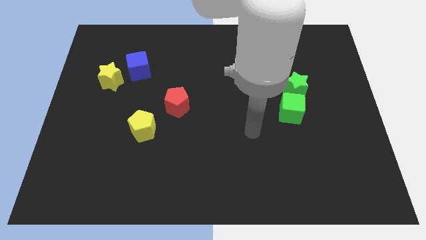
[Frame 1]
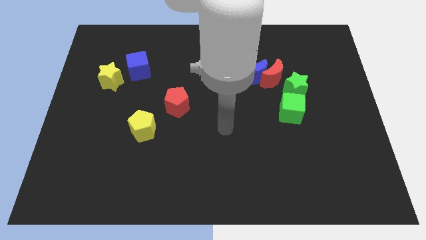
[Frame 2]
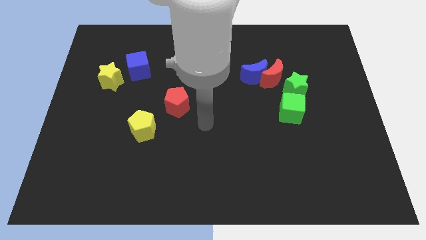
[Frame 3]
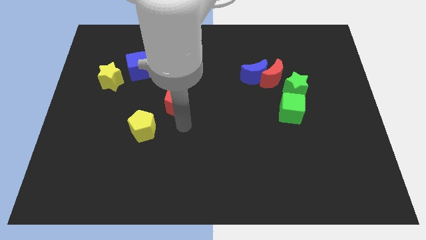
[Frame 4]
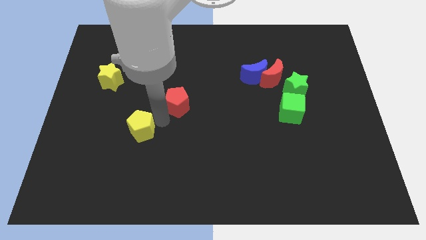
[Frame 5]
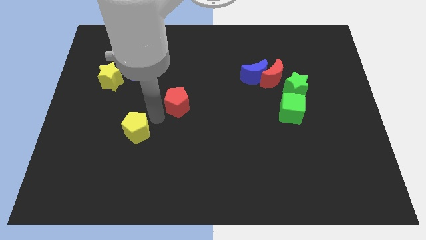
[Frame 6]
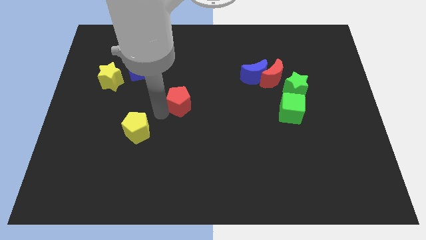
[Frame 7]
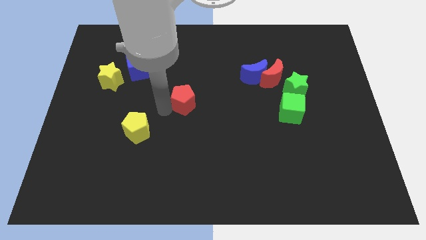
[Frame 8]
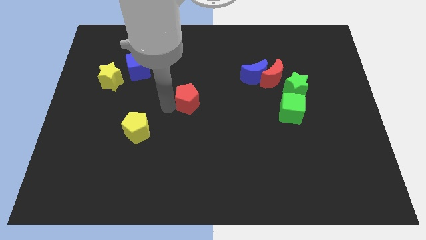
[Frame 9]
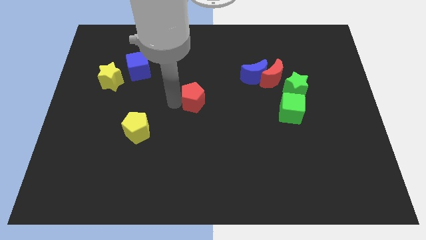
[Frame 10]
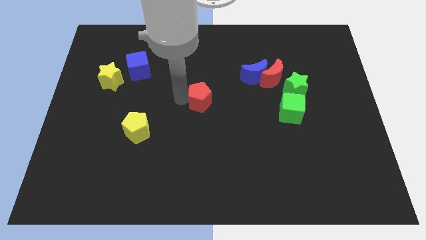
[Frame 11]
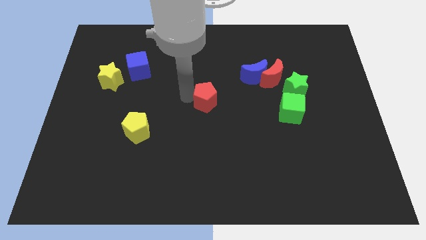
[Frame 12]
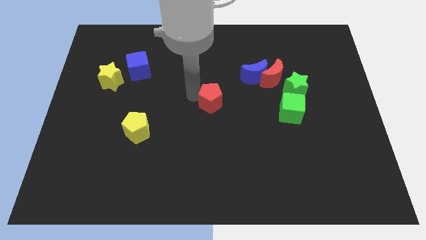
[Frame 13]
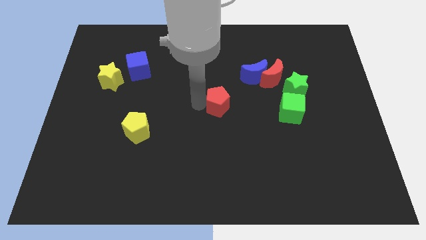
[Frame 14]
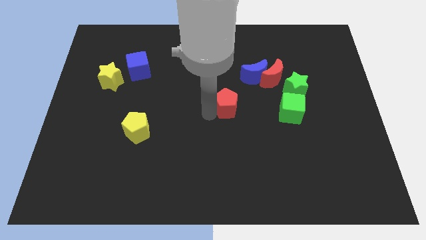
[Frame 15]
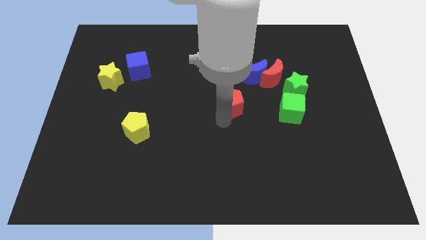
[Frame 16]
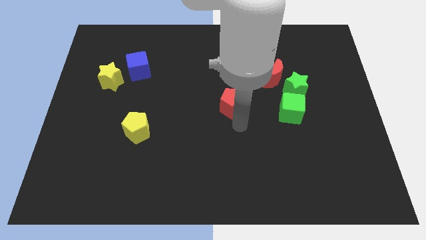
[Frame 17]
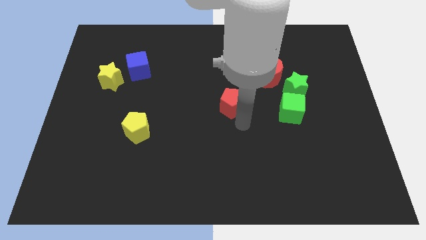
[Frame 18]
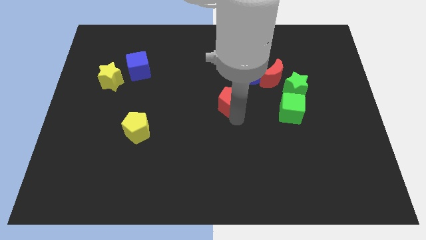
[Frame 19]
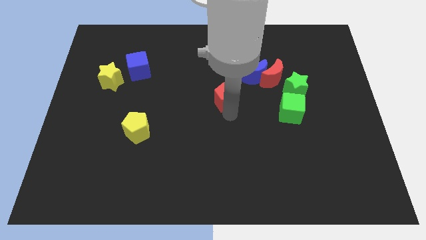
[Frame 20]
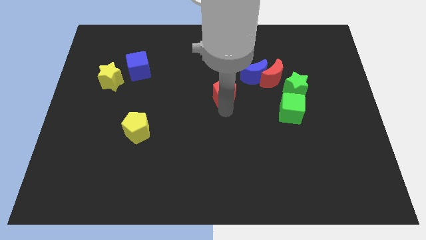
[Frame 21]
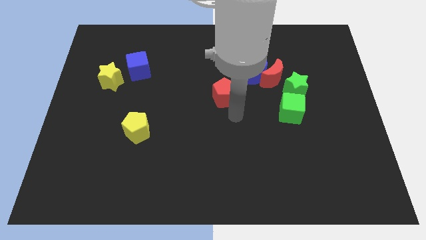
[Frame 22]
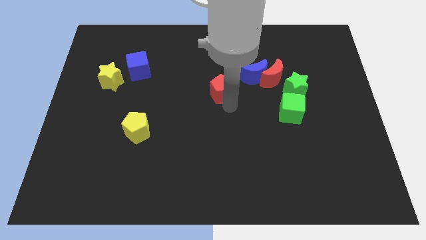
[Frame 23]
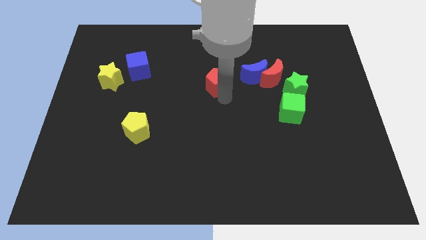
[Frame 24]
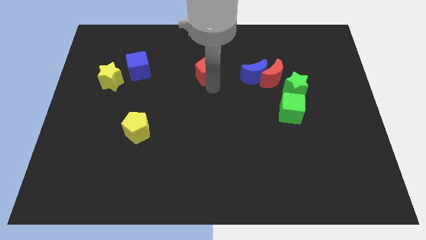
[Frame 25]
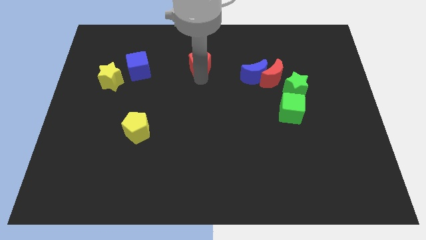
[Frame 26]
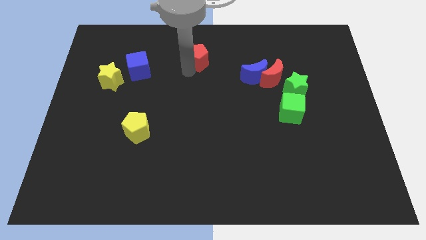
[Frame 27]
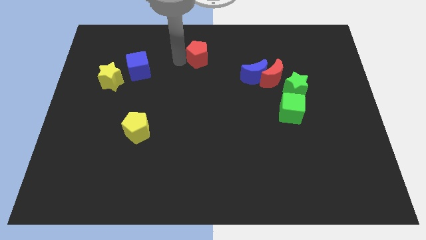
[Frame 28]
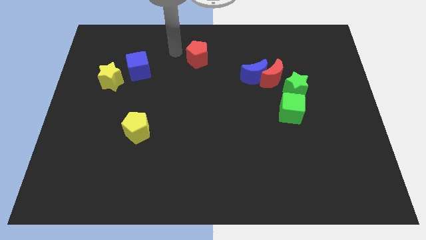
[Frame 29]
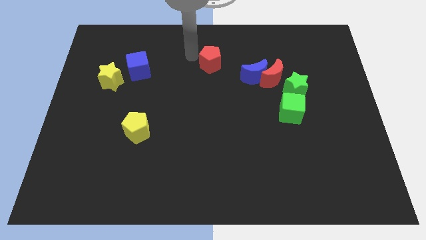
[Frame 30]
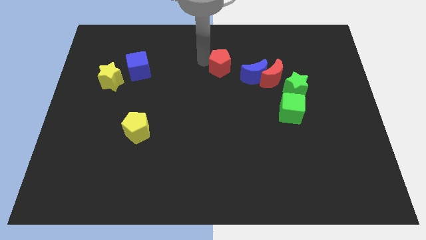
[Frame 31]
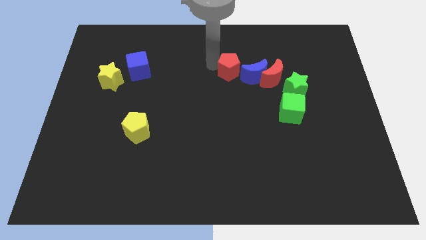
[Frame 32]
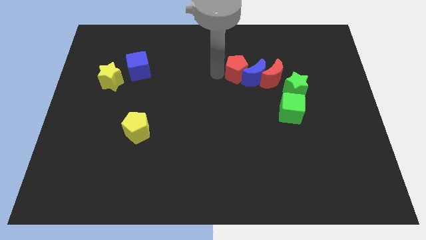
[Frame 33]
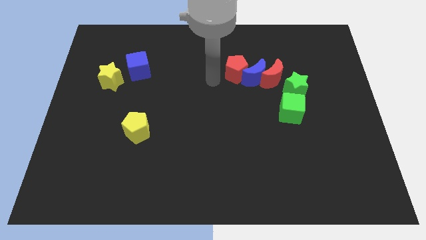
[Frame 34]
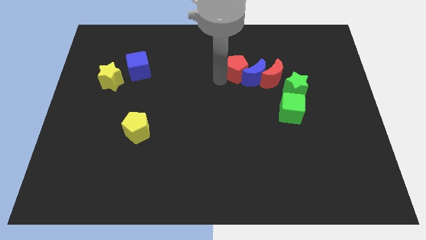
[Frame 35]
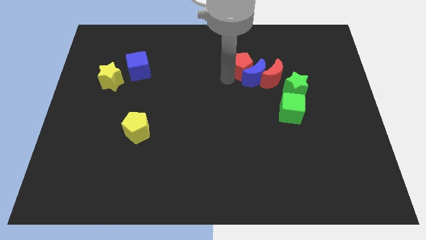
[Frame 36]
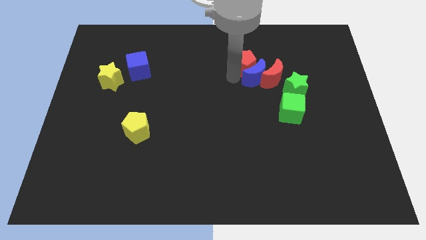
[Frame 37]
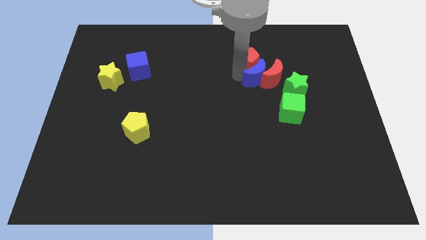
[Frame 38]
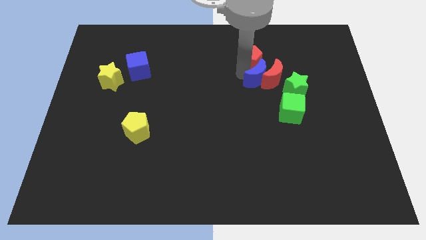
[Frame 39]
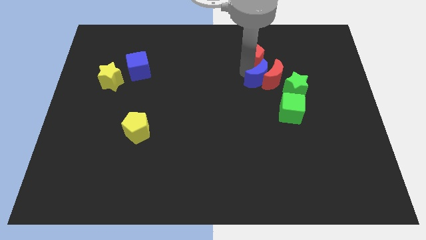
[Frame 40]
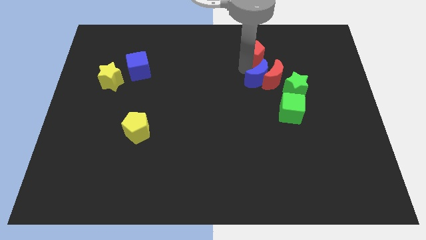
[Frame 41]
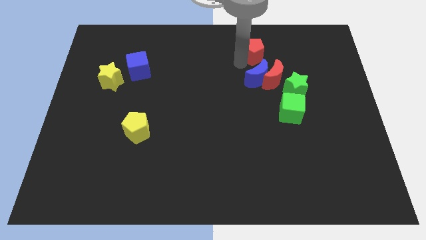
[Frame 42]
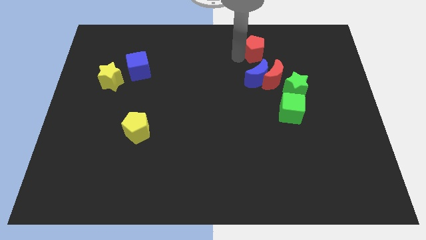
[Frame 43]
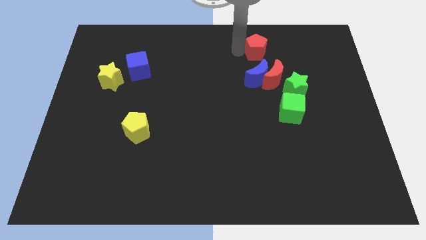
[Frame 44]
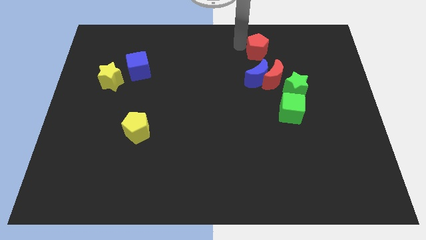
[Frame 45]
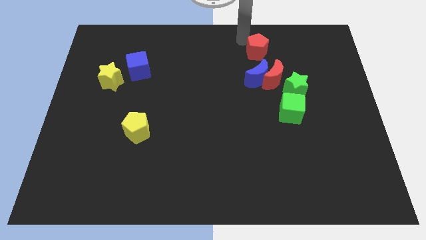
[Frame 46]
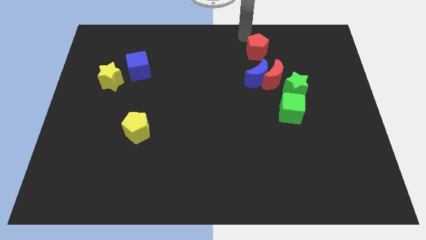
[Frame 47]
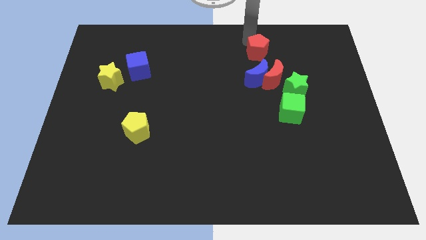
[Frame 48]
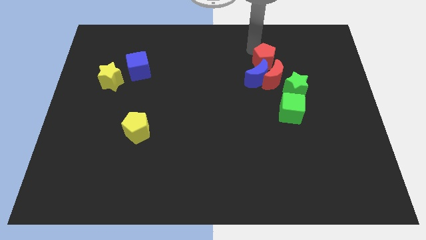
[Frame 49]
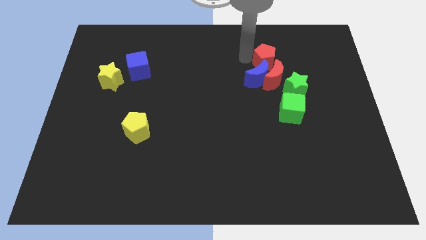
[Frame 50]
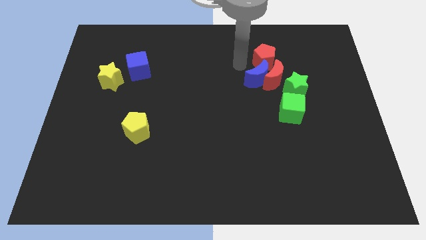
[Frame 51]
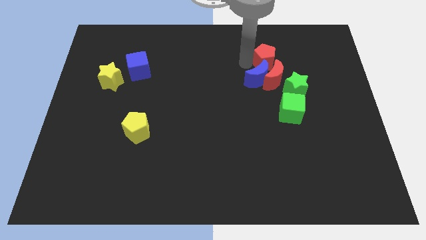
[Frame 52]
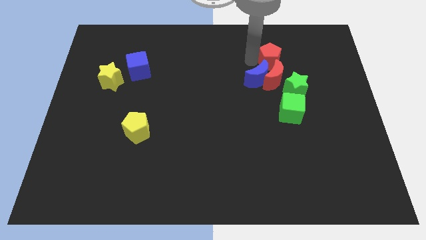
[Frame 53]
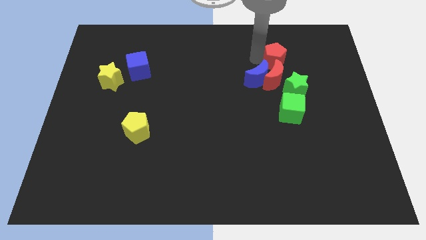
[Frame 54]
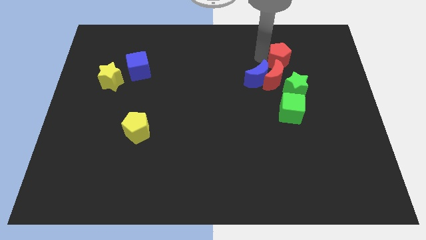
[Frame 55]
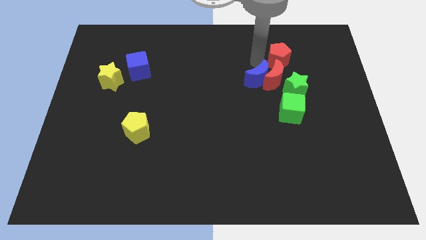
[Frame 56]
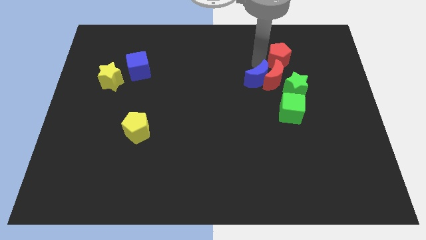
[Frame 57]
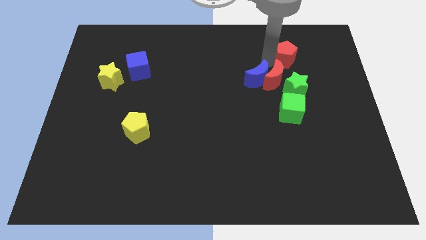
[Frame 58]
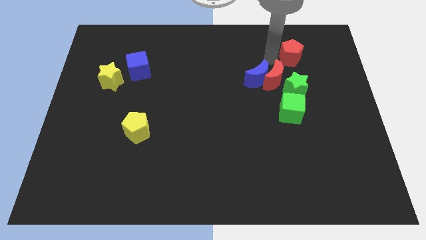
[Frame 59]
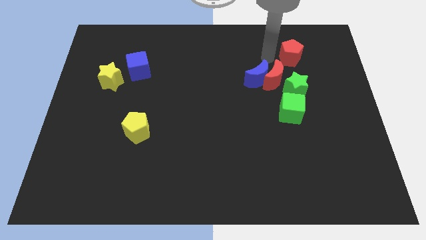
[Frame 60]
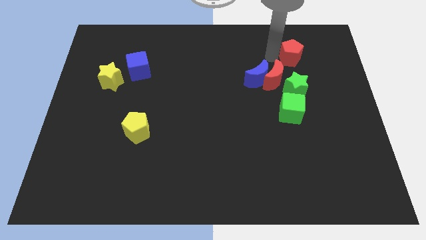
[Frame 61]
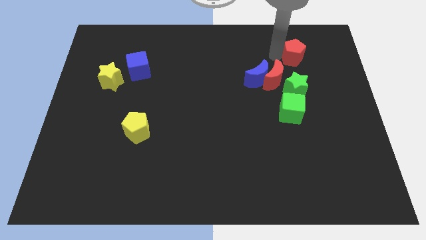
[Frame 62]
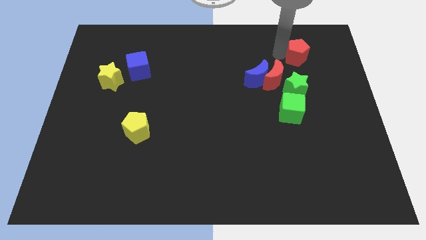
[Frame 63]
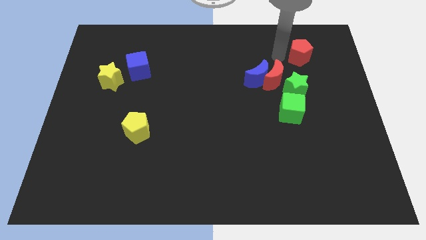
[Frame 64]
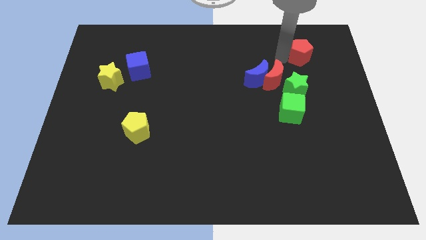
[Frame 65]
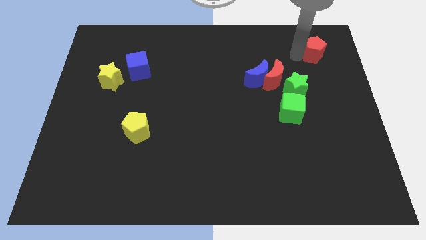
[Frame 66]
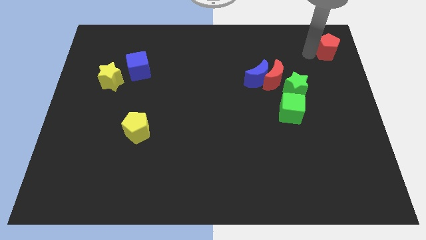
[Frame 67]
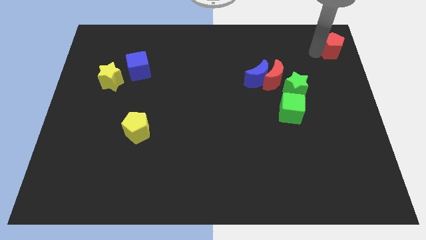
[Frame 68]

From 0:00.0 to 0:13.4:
move the red pentagon to the top right

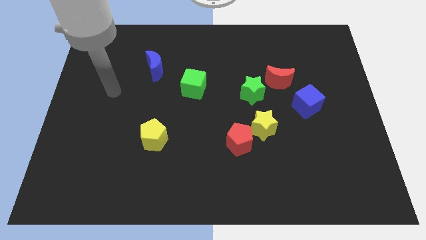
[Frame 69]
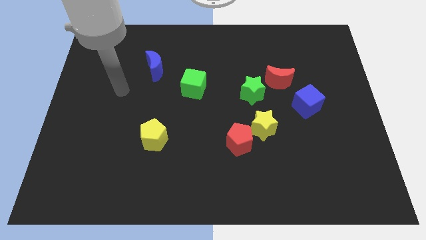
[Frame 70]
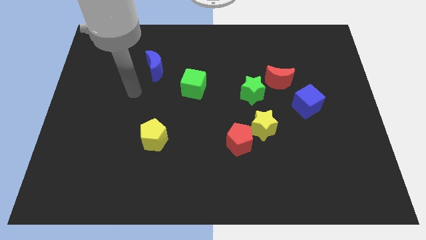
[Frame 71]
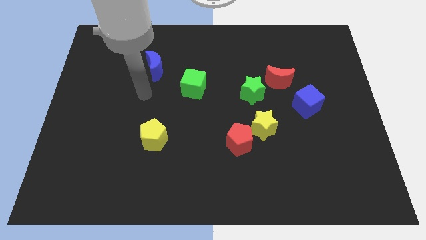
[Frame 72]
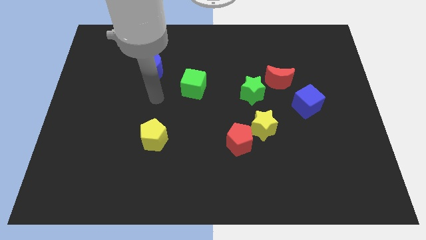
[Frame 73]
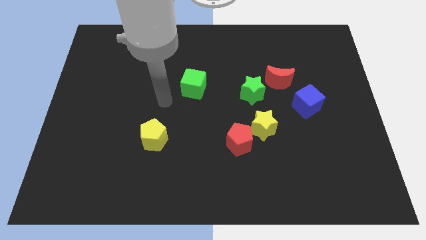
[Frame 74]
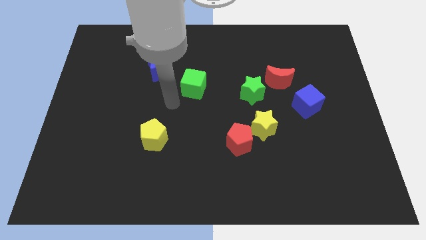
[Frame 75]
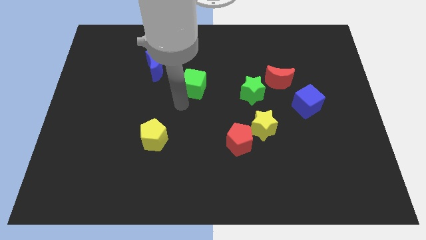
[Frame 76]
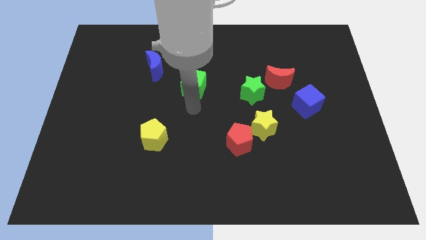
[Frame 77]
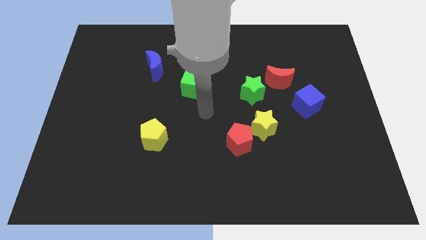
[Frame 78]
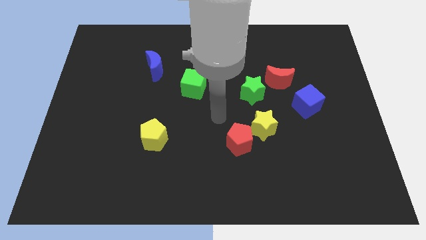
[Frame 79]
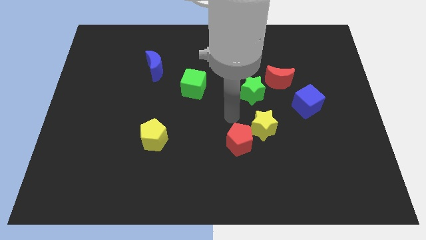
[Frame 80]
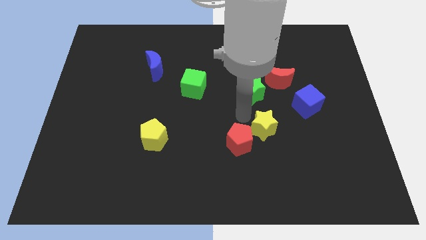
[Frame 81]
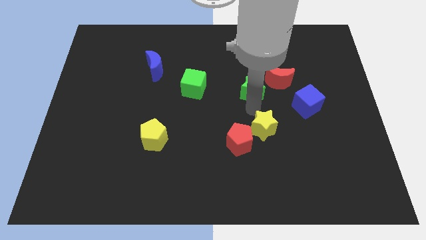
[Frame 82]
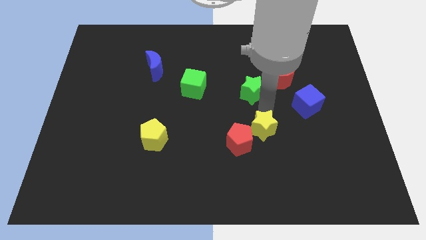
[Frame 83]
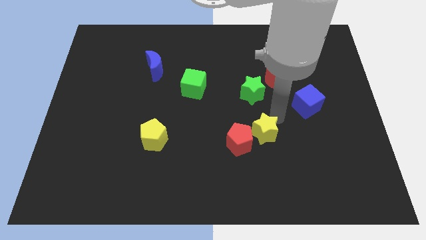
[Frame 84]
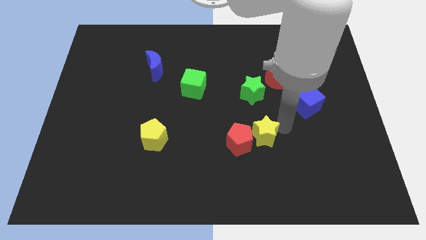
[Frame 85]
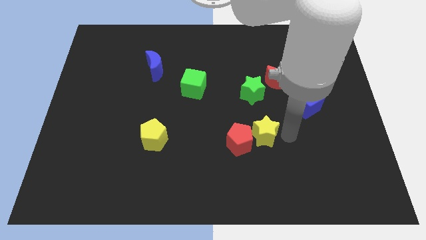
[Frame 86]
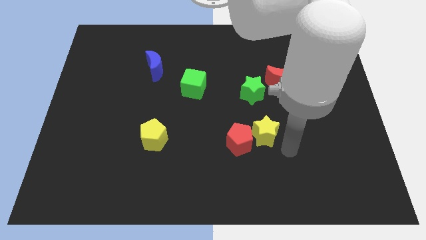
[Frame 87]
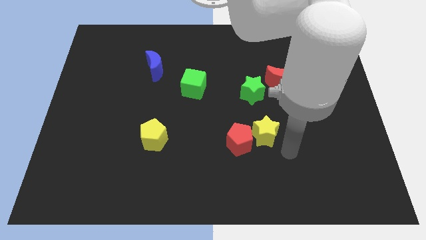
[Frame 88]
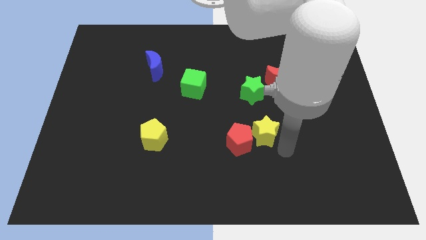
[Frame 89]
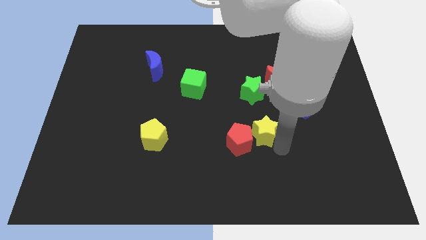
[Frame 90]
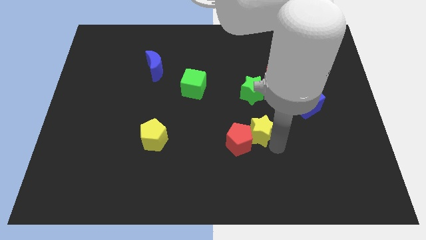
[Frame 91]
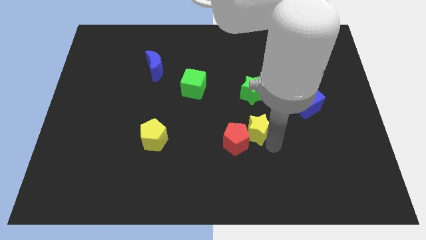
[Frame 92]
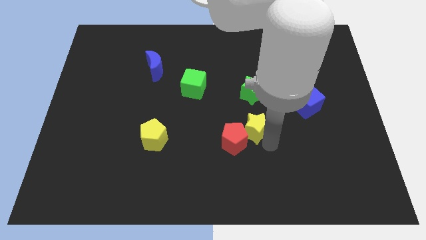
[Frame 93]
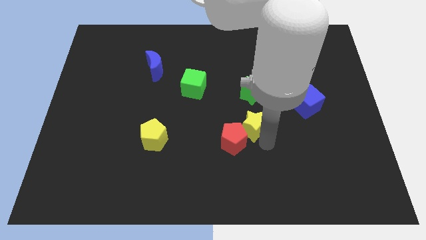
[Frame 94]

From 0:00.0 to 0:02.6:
put the yellow star to the center
